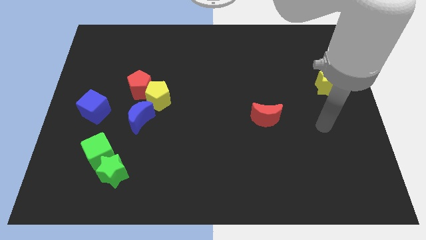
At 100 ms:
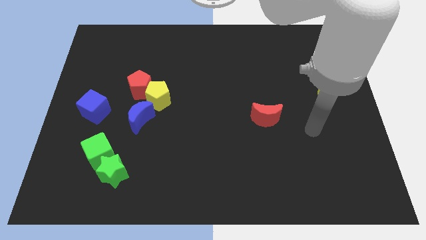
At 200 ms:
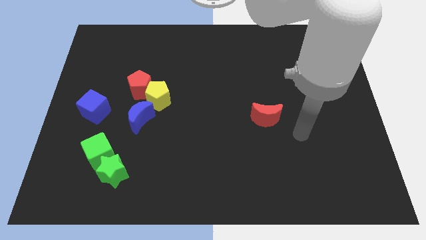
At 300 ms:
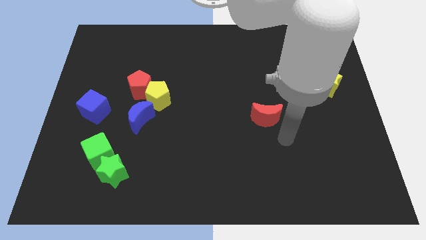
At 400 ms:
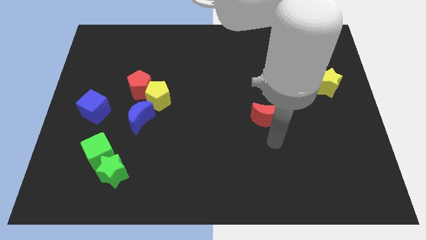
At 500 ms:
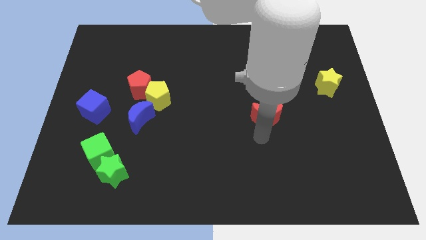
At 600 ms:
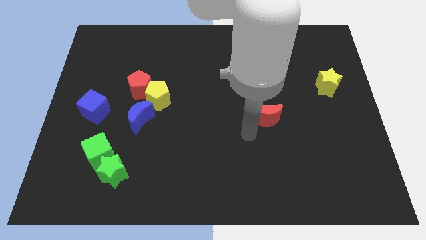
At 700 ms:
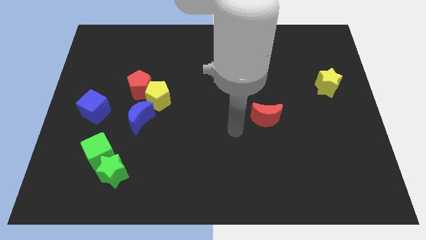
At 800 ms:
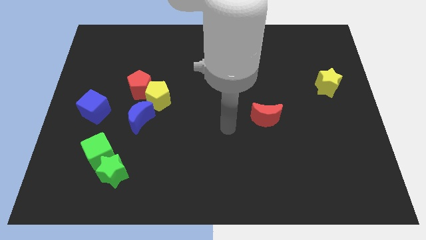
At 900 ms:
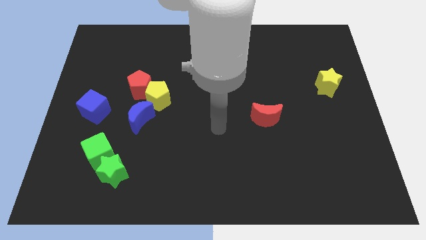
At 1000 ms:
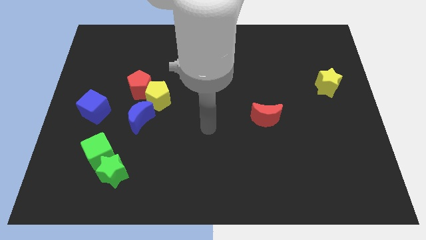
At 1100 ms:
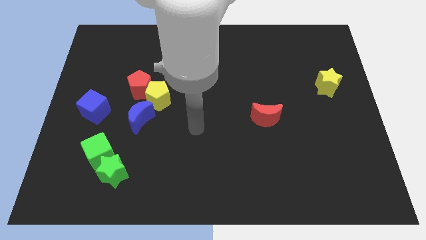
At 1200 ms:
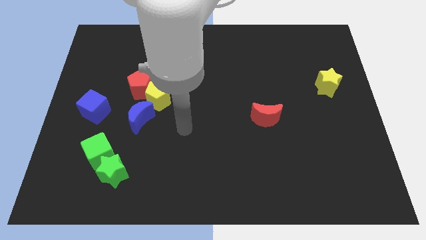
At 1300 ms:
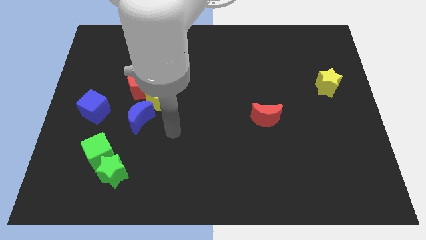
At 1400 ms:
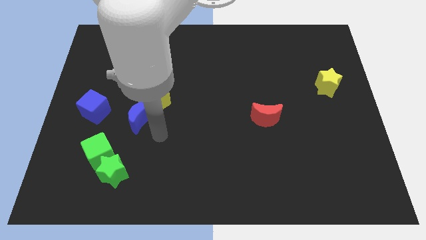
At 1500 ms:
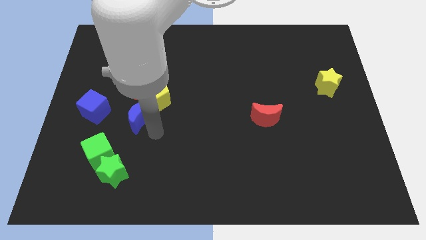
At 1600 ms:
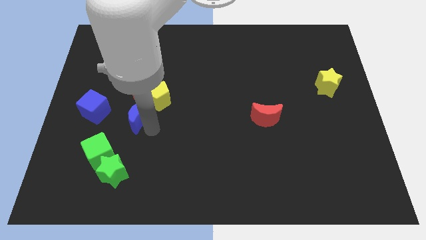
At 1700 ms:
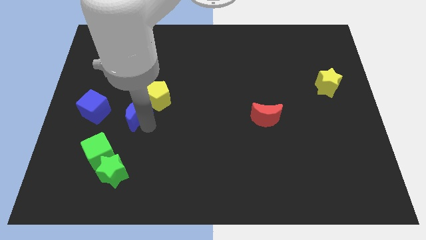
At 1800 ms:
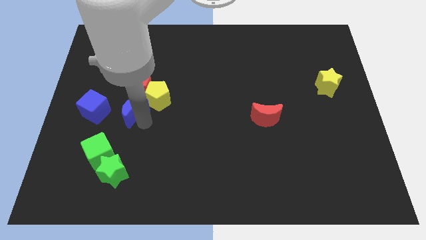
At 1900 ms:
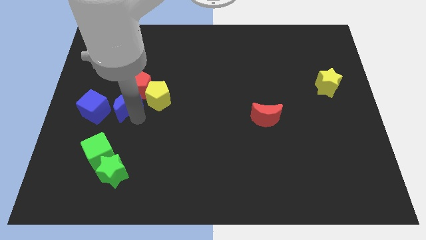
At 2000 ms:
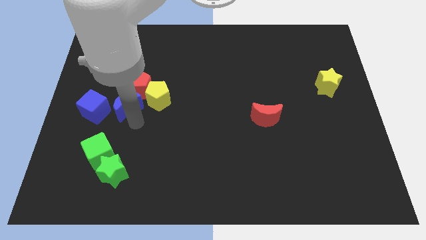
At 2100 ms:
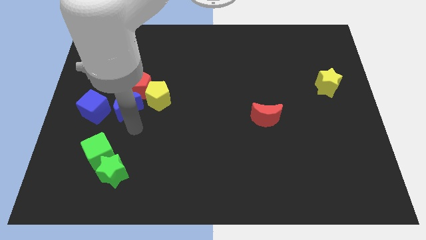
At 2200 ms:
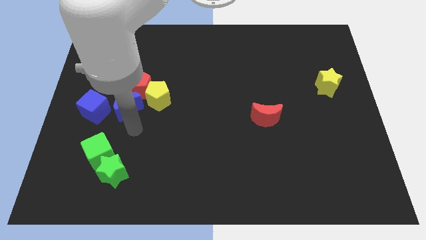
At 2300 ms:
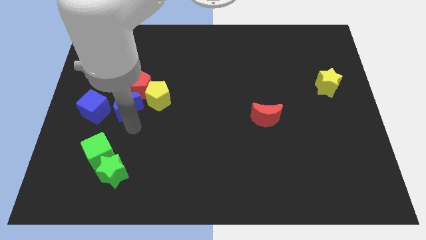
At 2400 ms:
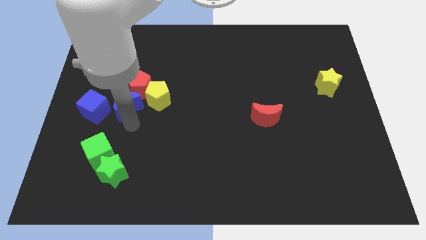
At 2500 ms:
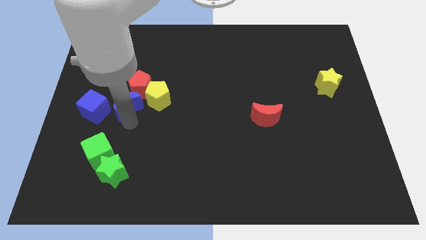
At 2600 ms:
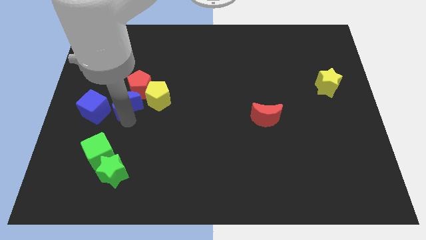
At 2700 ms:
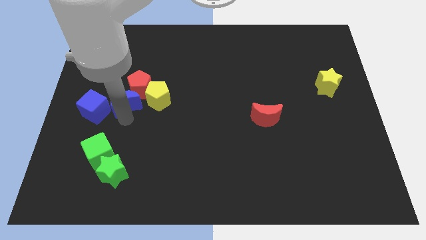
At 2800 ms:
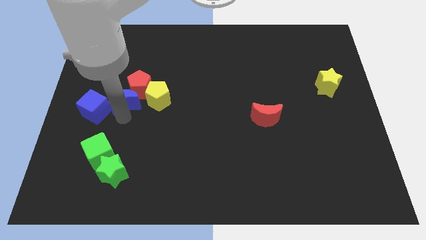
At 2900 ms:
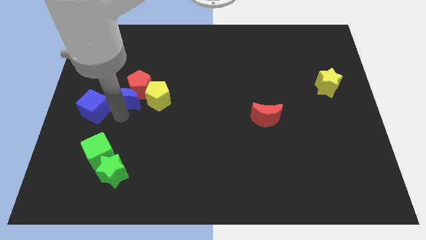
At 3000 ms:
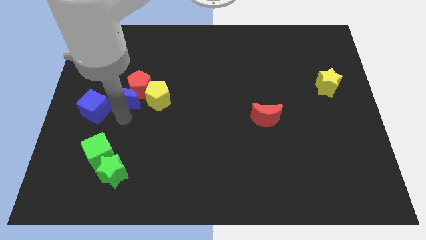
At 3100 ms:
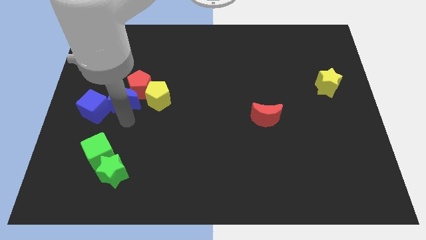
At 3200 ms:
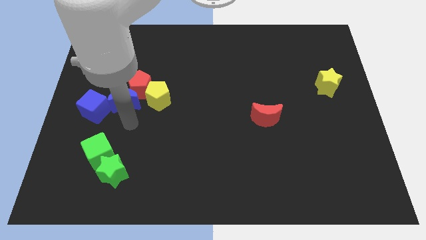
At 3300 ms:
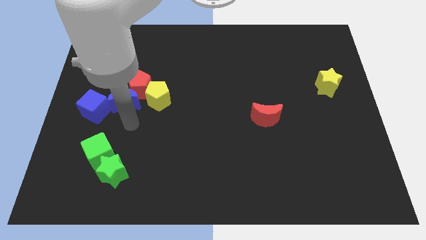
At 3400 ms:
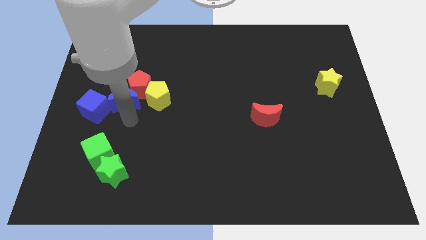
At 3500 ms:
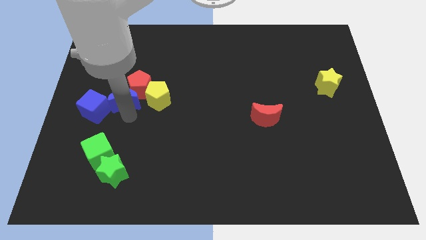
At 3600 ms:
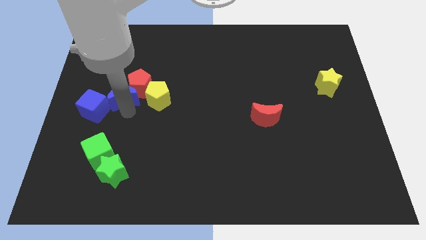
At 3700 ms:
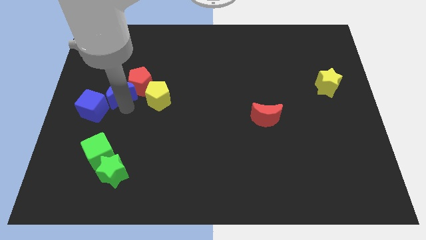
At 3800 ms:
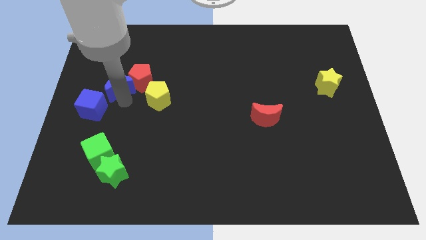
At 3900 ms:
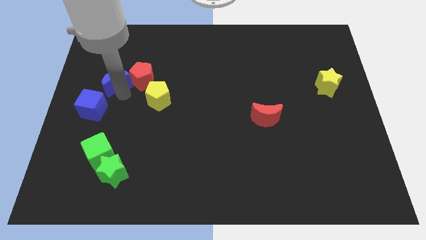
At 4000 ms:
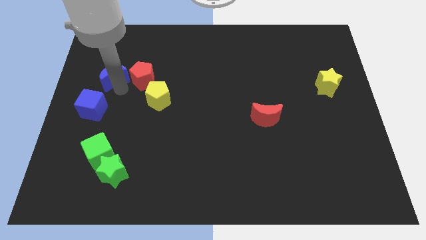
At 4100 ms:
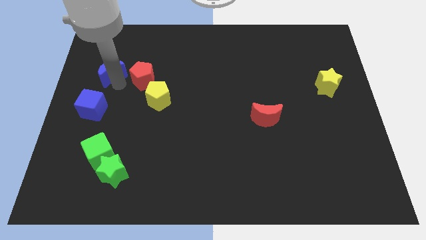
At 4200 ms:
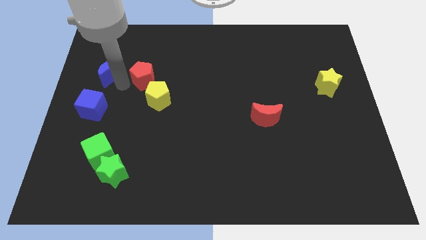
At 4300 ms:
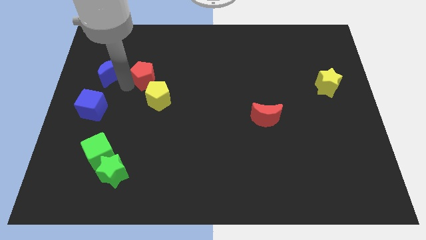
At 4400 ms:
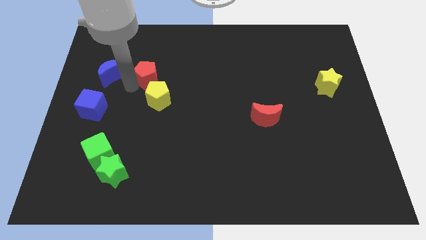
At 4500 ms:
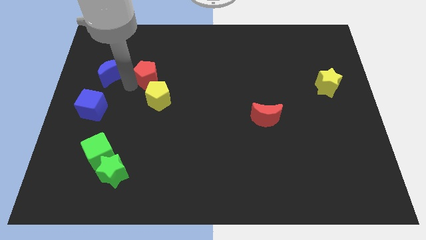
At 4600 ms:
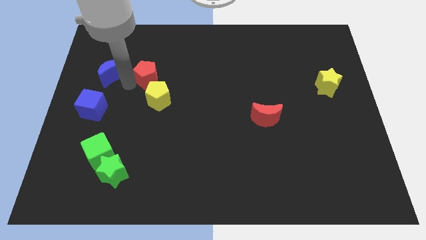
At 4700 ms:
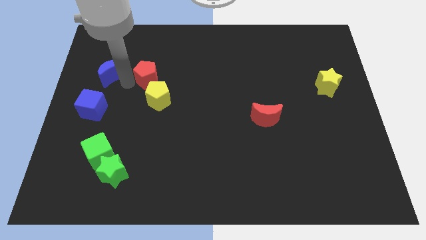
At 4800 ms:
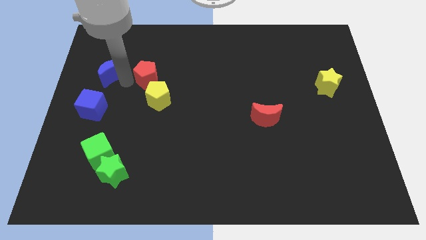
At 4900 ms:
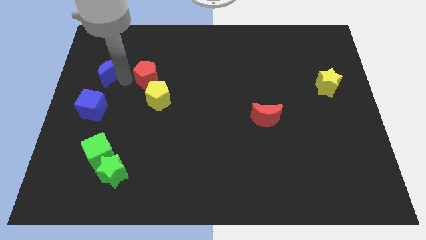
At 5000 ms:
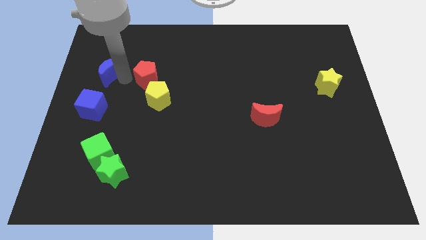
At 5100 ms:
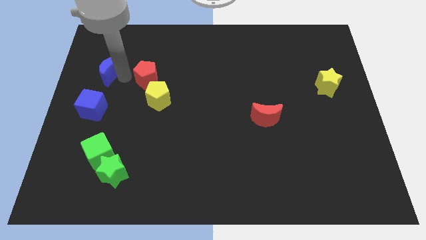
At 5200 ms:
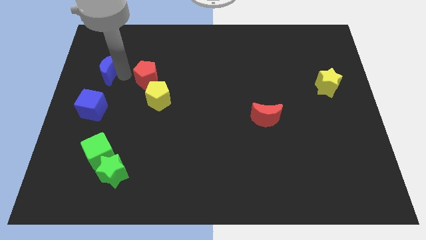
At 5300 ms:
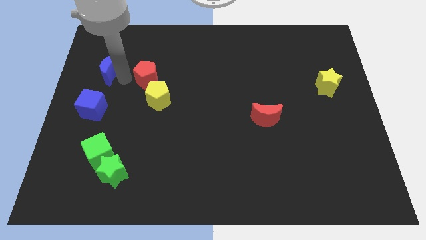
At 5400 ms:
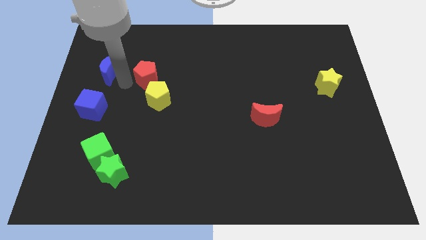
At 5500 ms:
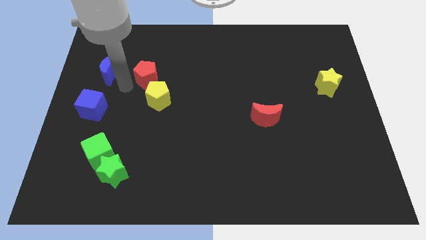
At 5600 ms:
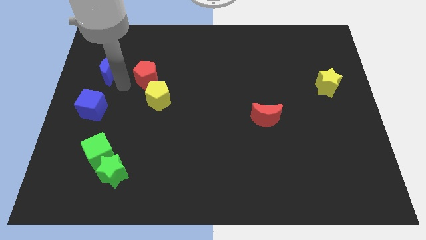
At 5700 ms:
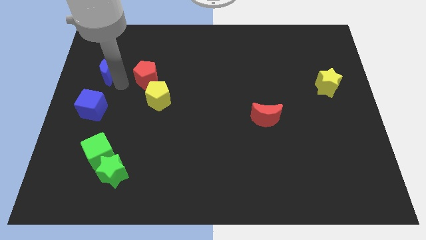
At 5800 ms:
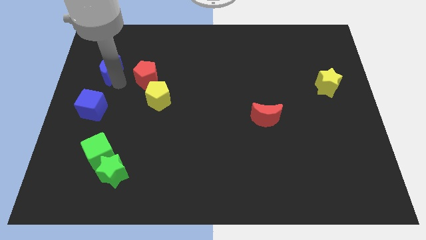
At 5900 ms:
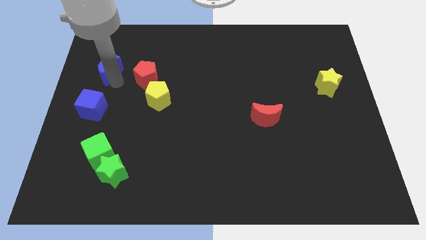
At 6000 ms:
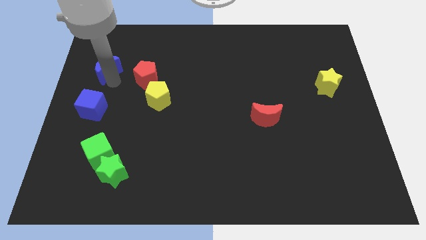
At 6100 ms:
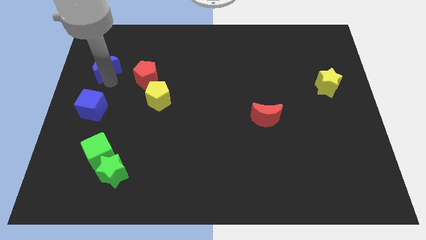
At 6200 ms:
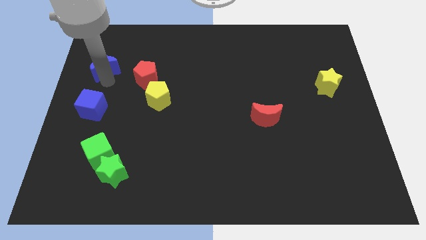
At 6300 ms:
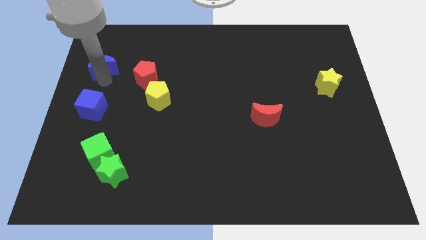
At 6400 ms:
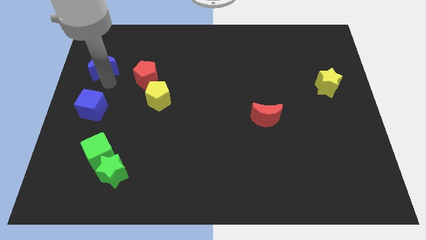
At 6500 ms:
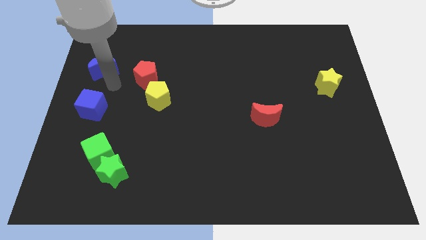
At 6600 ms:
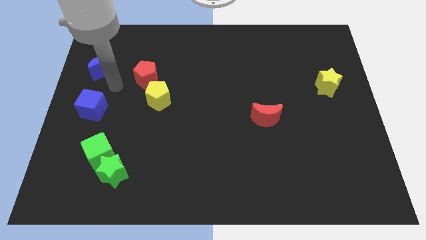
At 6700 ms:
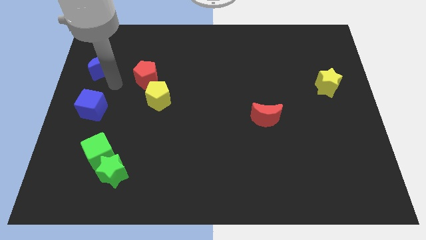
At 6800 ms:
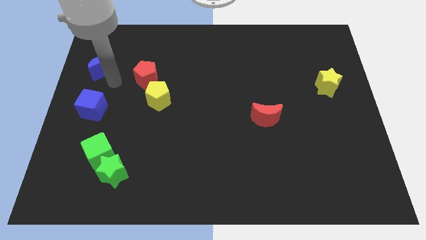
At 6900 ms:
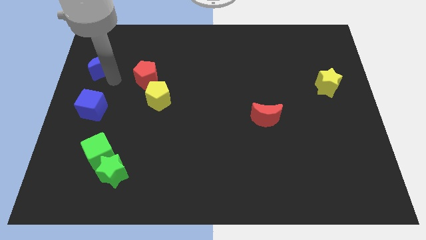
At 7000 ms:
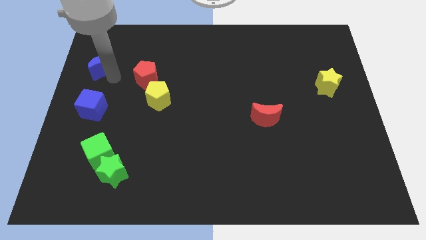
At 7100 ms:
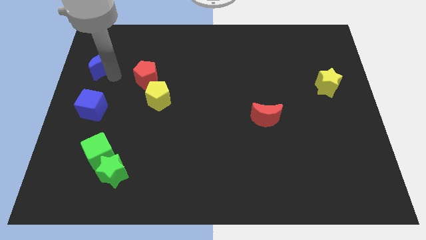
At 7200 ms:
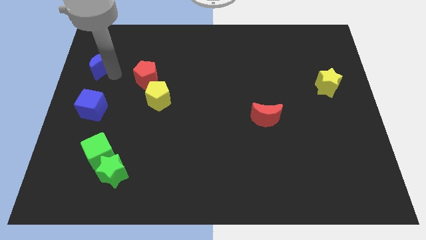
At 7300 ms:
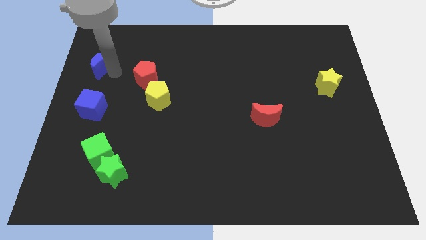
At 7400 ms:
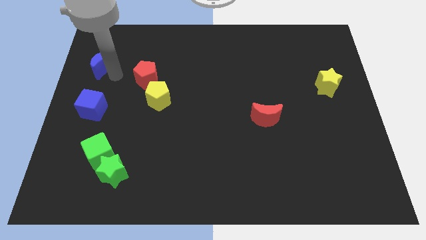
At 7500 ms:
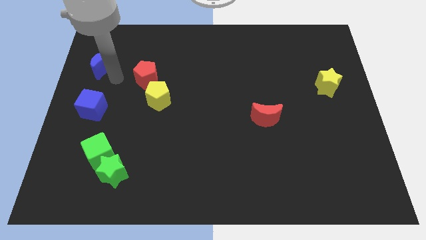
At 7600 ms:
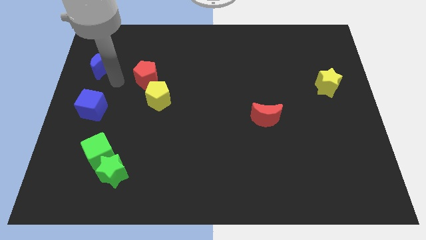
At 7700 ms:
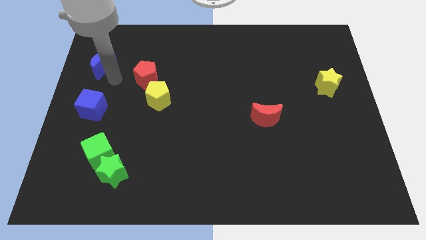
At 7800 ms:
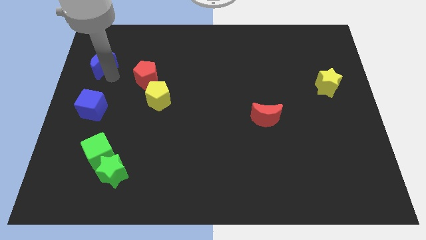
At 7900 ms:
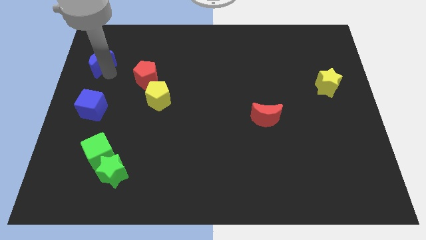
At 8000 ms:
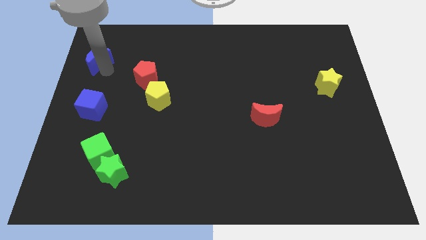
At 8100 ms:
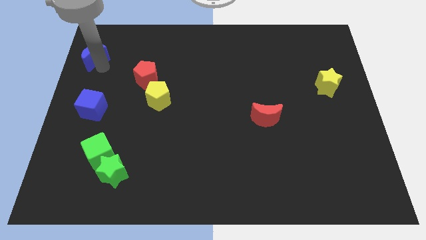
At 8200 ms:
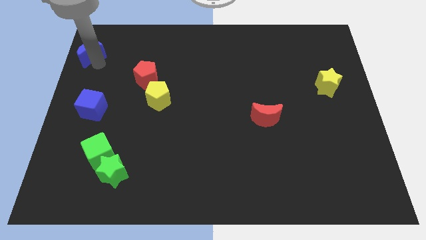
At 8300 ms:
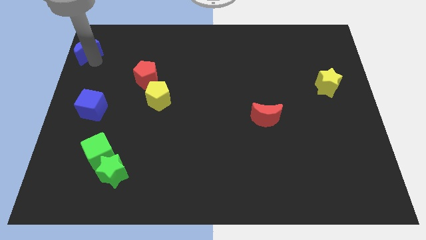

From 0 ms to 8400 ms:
move the blue moon to the upper left corner

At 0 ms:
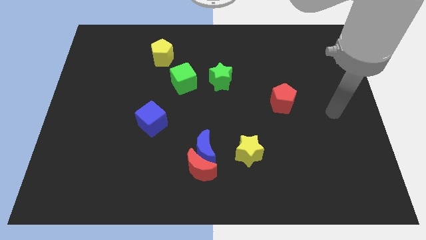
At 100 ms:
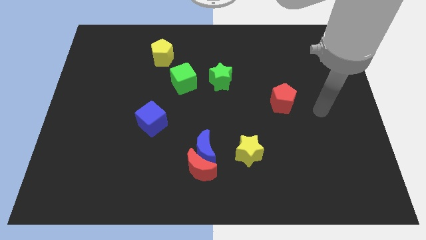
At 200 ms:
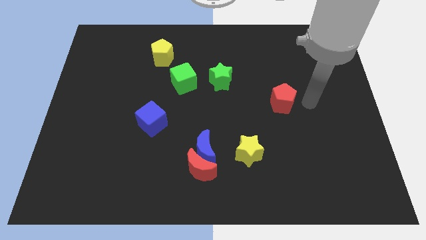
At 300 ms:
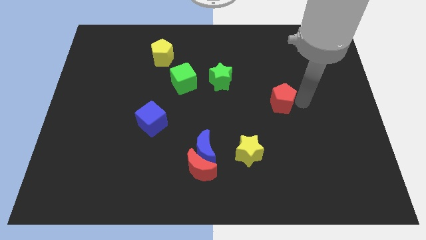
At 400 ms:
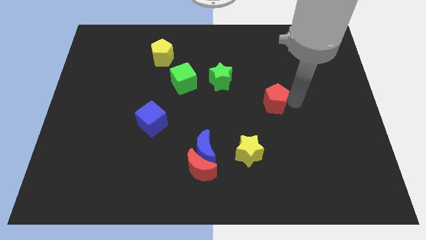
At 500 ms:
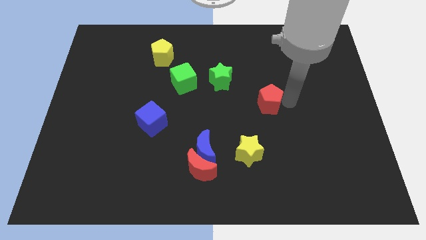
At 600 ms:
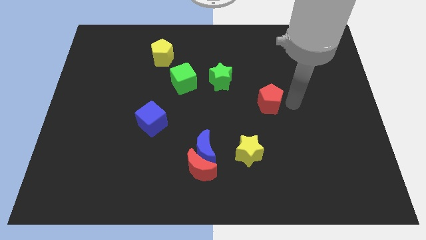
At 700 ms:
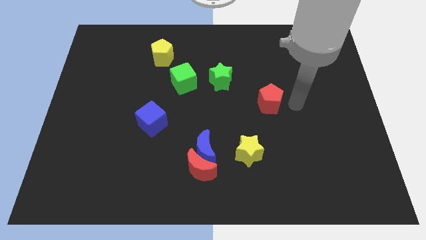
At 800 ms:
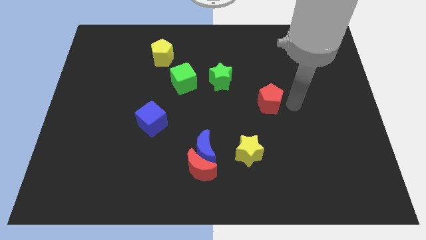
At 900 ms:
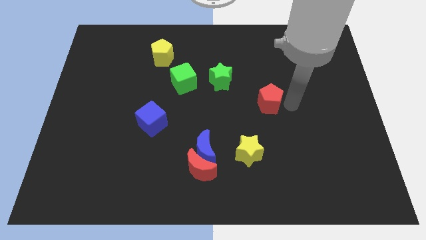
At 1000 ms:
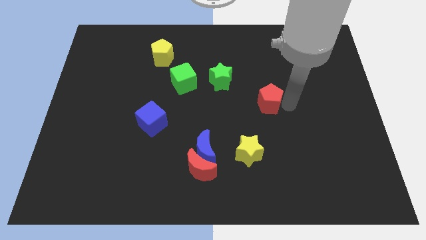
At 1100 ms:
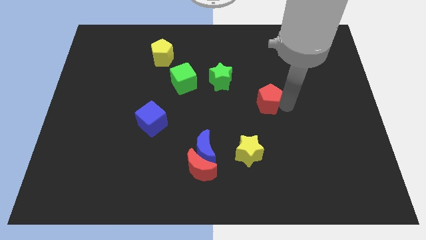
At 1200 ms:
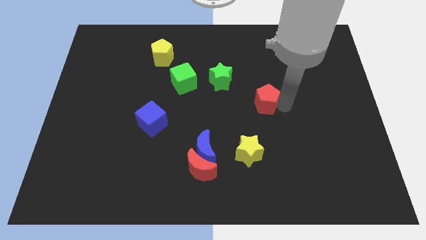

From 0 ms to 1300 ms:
slide the red pentagon to the center of the board
